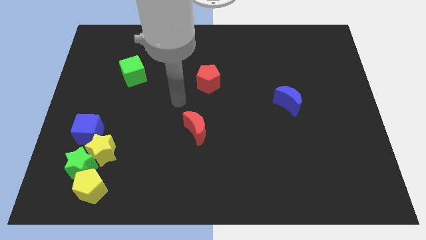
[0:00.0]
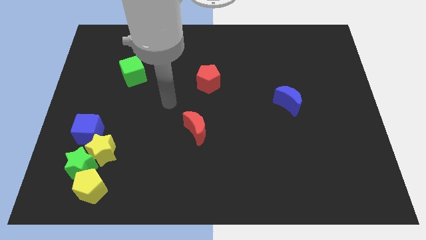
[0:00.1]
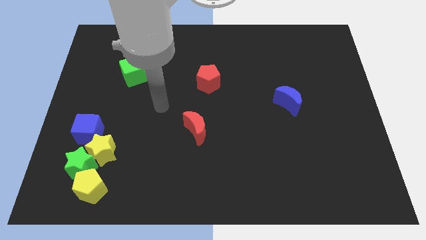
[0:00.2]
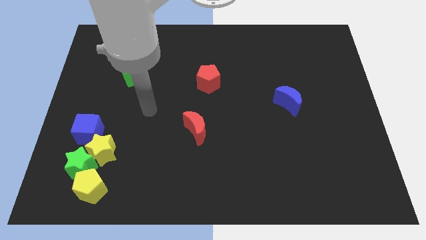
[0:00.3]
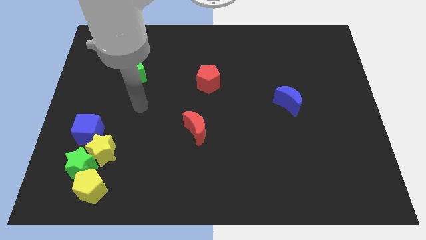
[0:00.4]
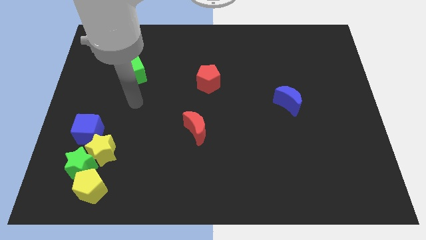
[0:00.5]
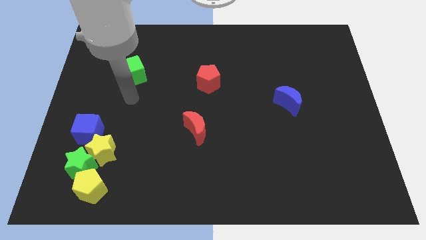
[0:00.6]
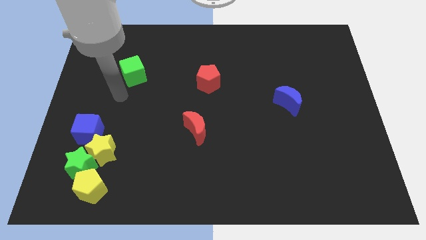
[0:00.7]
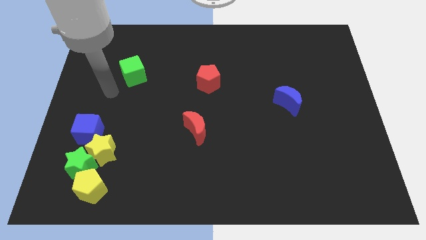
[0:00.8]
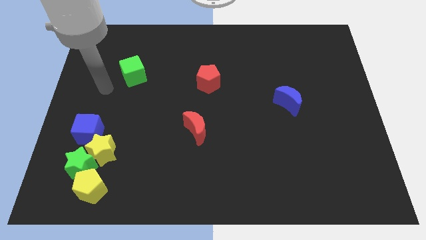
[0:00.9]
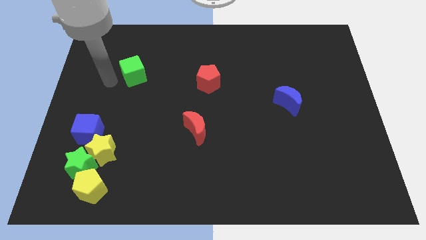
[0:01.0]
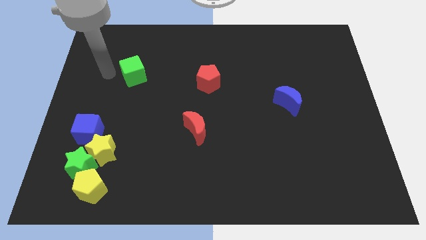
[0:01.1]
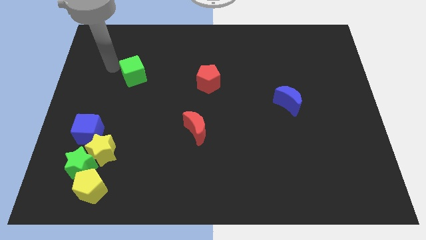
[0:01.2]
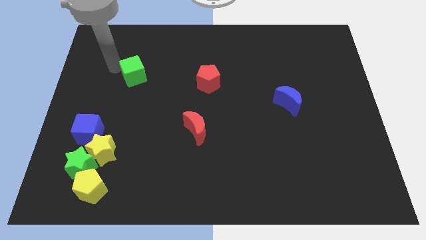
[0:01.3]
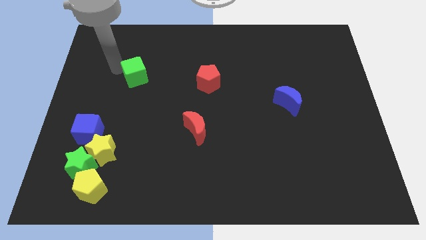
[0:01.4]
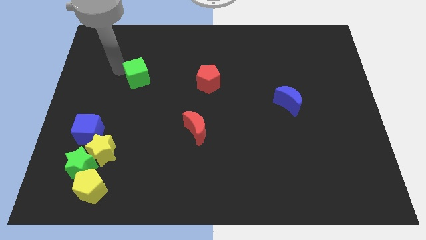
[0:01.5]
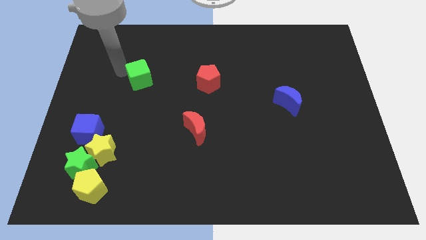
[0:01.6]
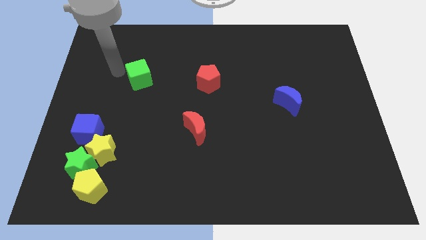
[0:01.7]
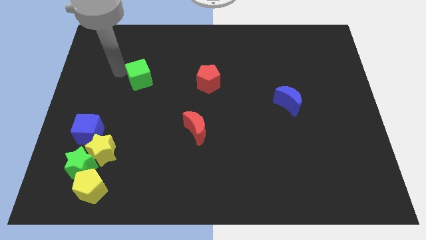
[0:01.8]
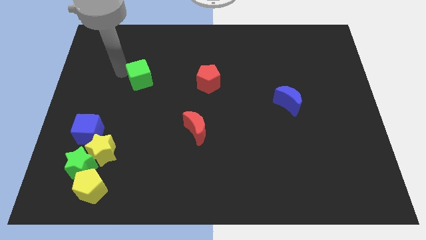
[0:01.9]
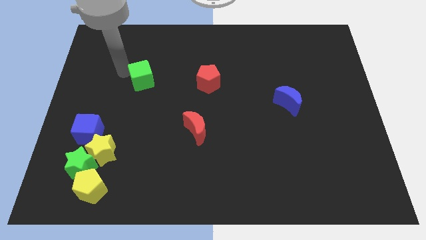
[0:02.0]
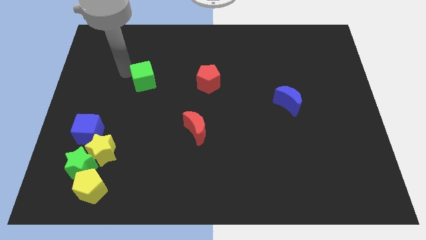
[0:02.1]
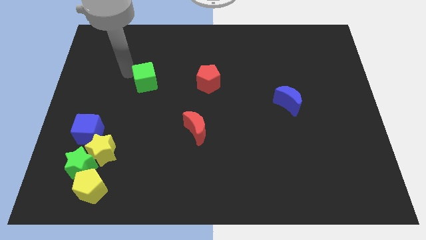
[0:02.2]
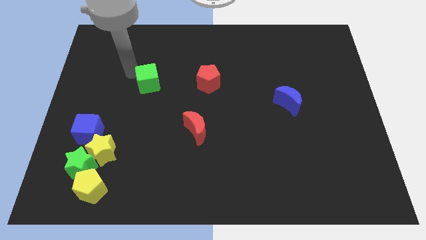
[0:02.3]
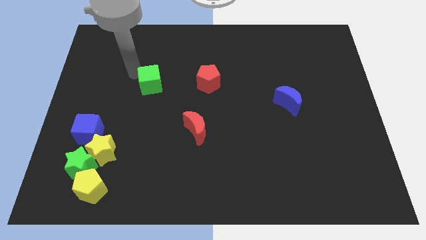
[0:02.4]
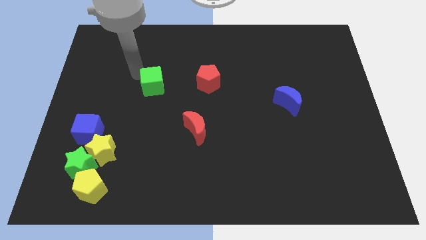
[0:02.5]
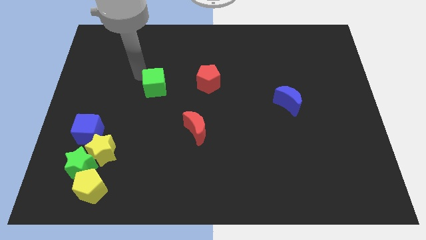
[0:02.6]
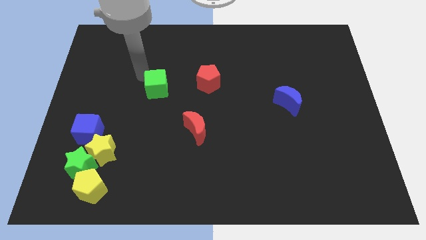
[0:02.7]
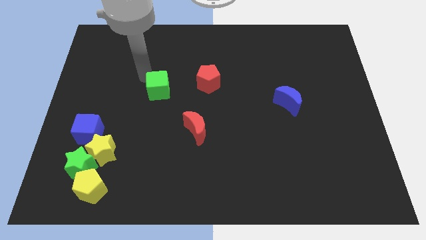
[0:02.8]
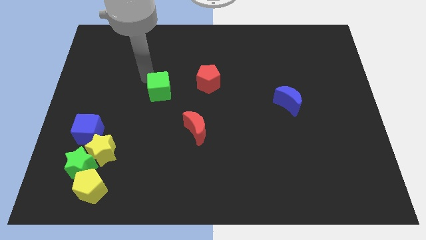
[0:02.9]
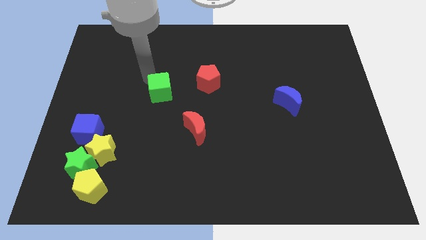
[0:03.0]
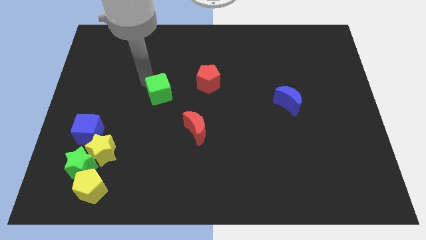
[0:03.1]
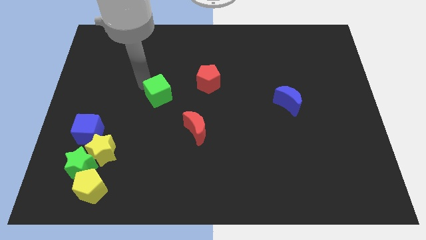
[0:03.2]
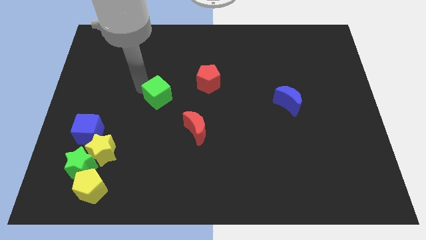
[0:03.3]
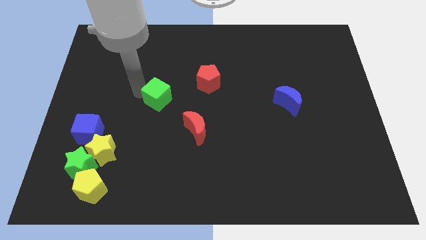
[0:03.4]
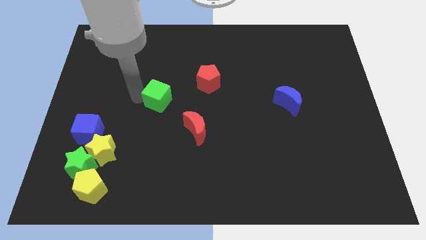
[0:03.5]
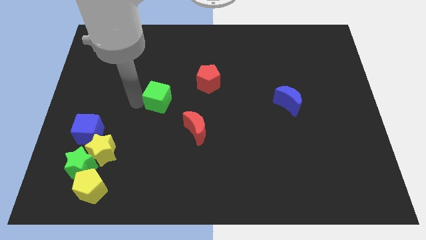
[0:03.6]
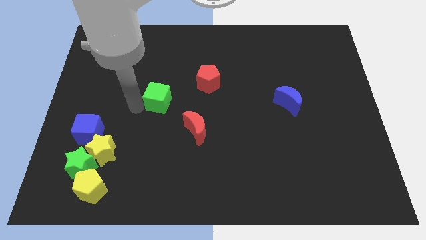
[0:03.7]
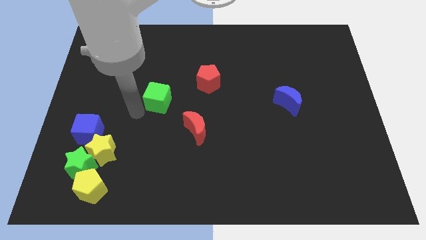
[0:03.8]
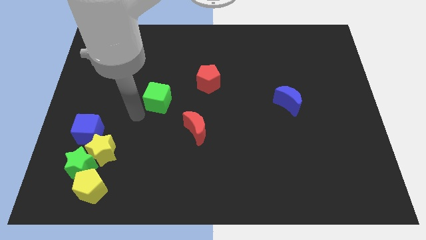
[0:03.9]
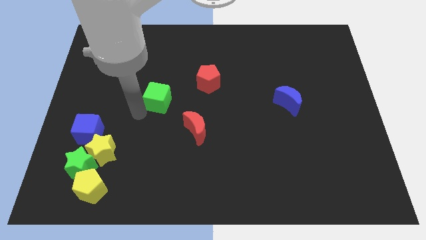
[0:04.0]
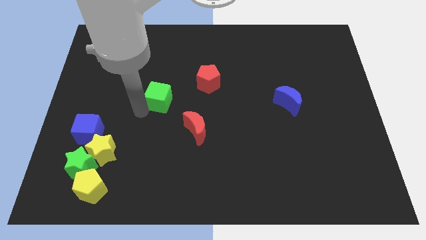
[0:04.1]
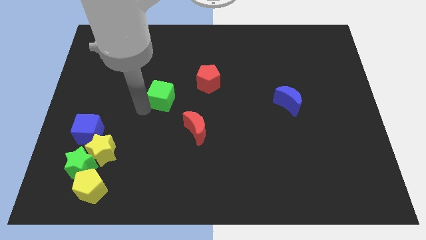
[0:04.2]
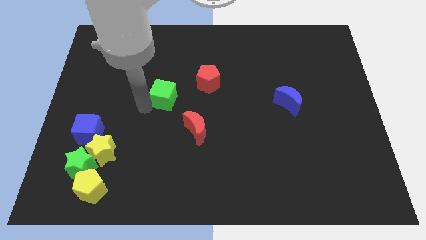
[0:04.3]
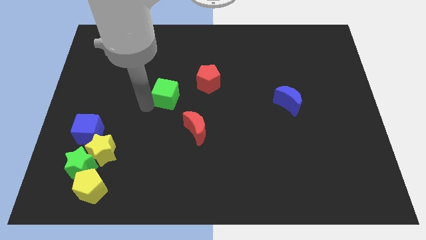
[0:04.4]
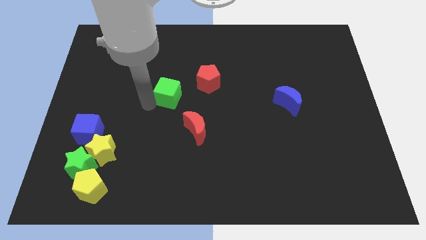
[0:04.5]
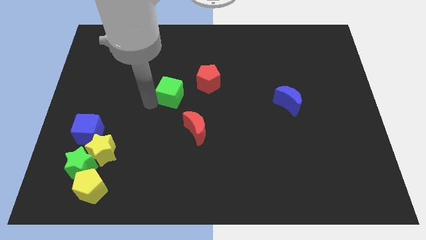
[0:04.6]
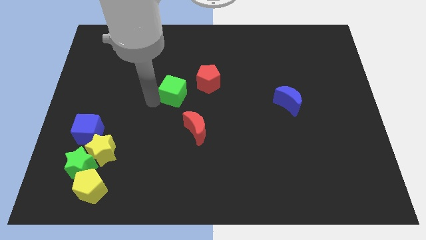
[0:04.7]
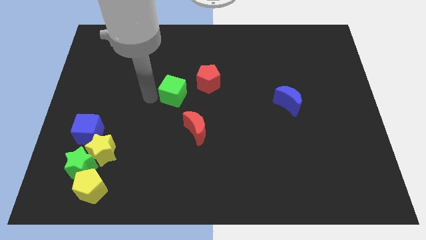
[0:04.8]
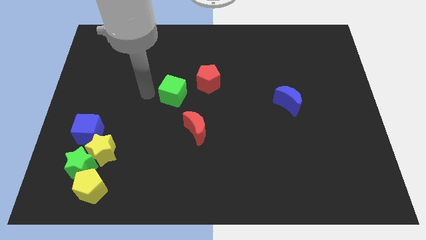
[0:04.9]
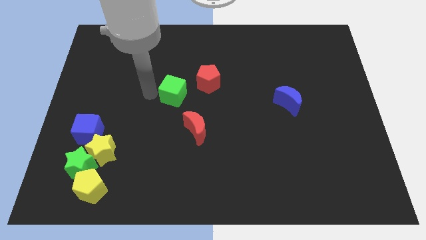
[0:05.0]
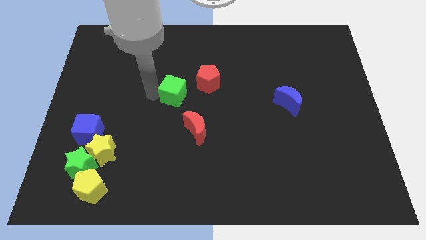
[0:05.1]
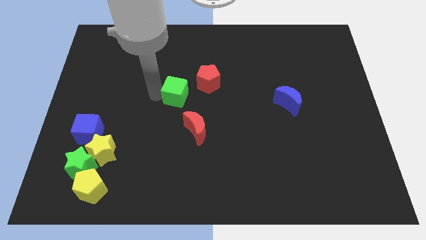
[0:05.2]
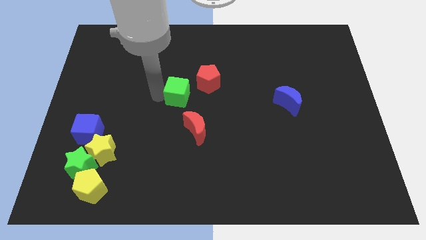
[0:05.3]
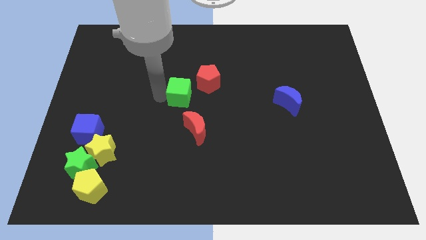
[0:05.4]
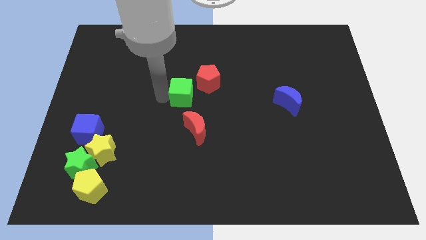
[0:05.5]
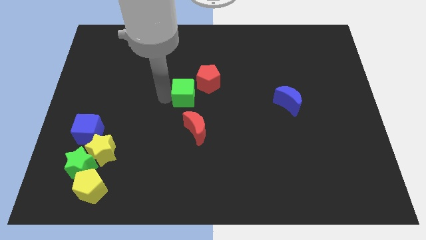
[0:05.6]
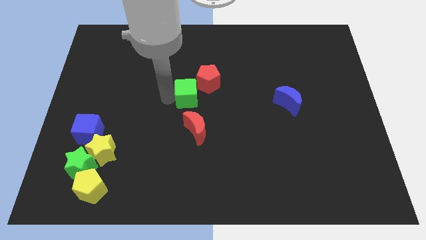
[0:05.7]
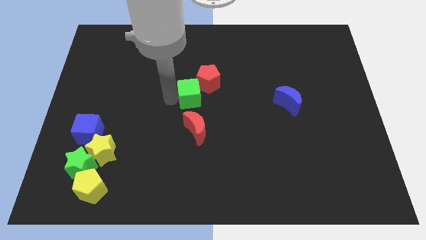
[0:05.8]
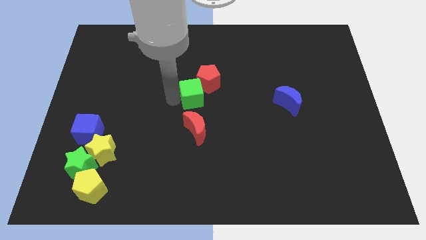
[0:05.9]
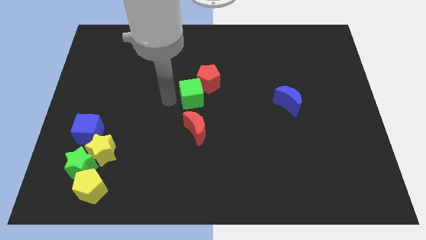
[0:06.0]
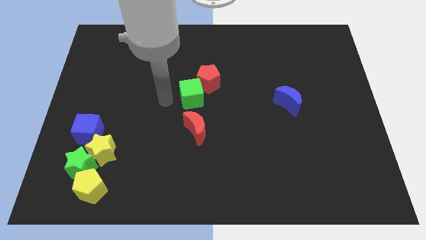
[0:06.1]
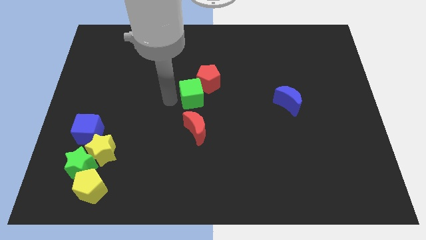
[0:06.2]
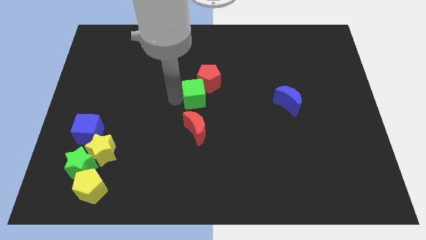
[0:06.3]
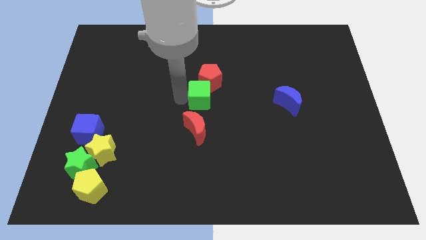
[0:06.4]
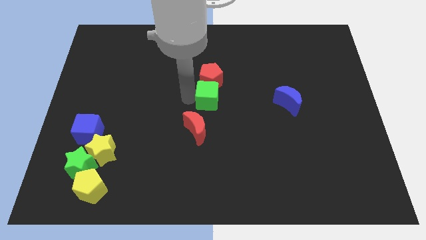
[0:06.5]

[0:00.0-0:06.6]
push the green cube to the bottom right side of the red pentagon
